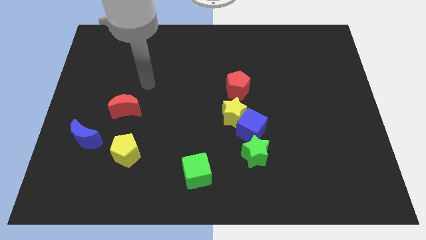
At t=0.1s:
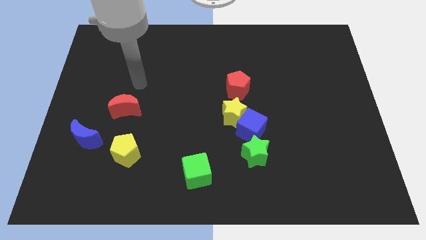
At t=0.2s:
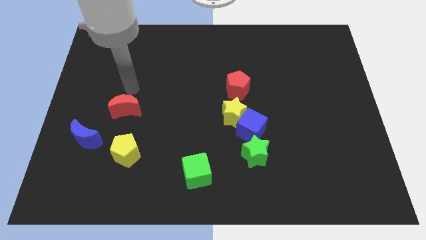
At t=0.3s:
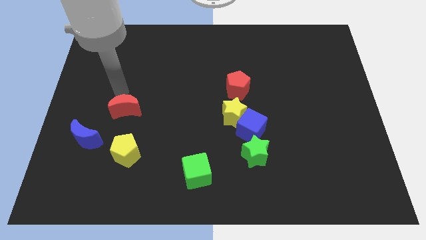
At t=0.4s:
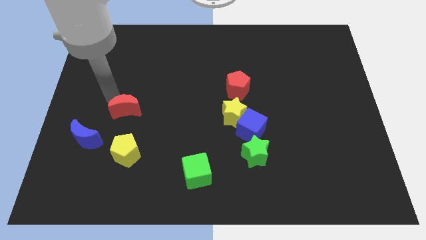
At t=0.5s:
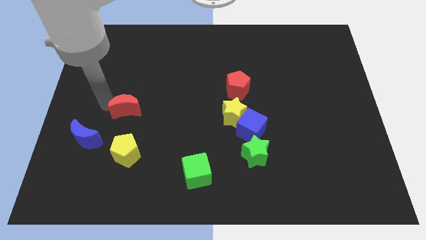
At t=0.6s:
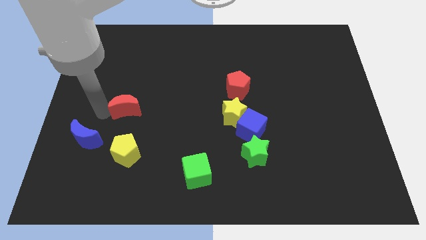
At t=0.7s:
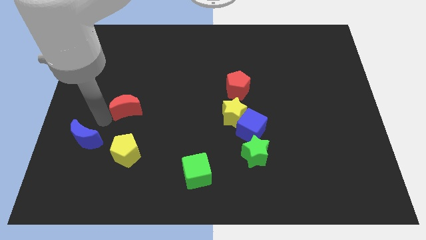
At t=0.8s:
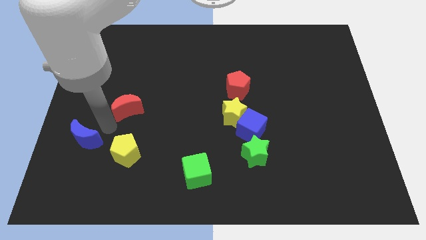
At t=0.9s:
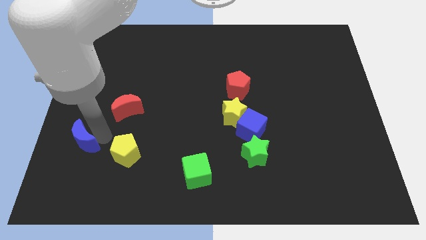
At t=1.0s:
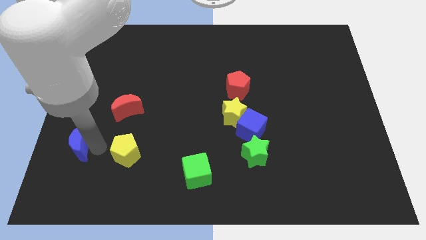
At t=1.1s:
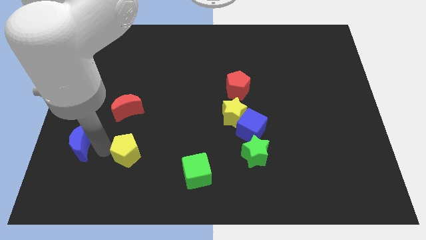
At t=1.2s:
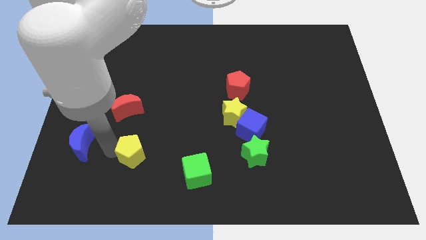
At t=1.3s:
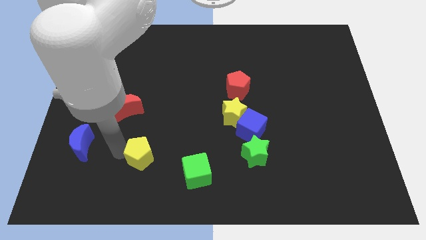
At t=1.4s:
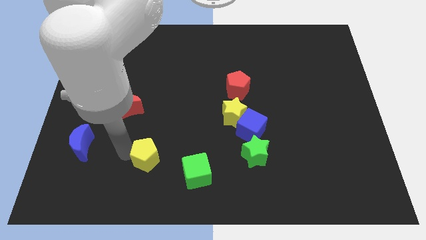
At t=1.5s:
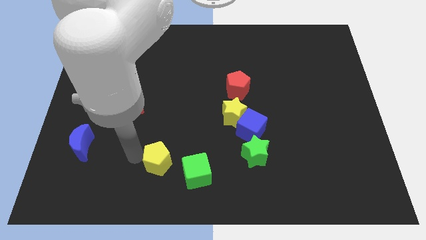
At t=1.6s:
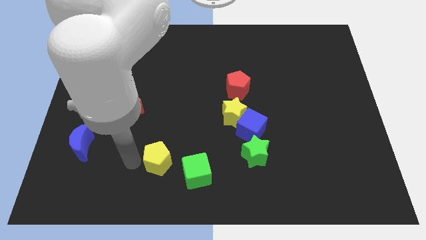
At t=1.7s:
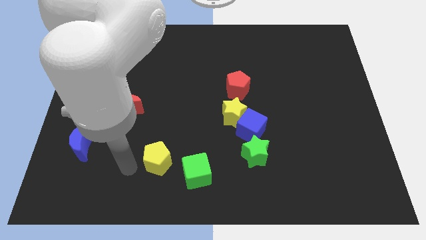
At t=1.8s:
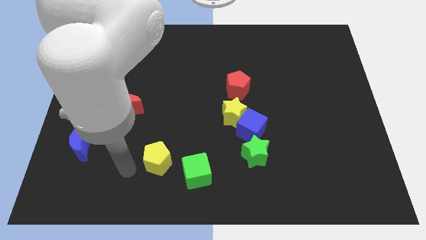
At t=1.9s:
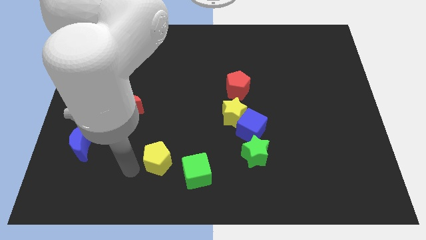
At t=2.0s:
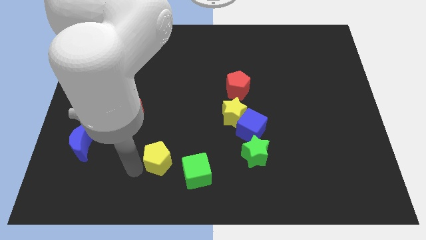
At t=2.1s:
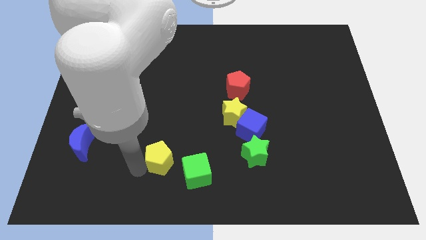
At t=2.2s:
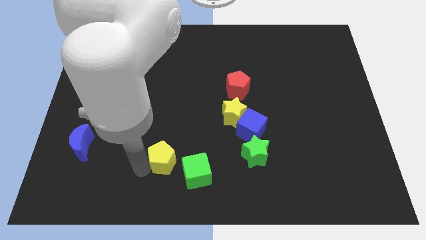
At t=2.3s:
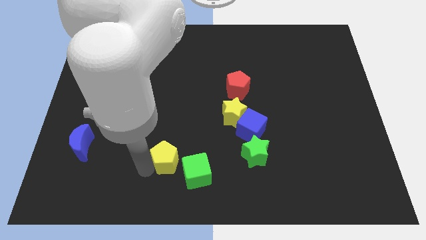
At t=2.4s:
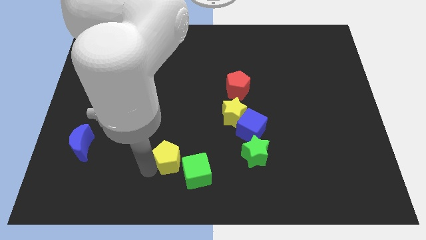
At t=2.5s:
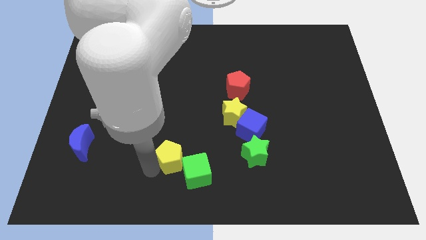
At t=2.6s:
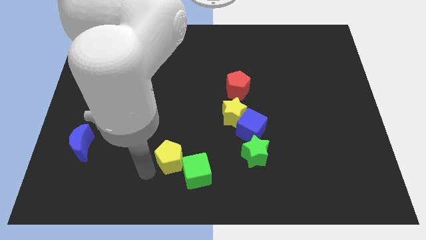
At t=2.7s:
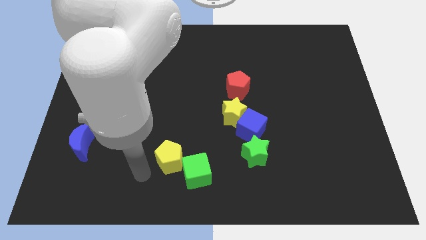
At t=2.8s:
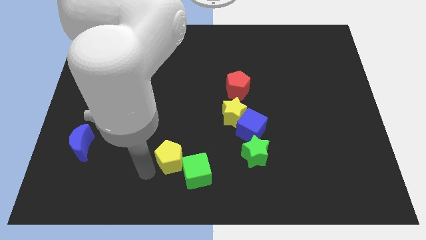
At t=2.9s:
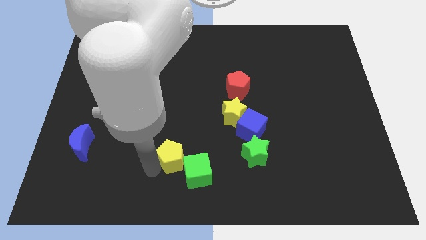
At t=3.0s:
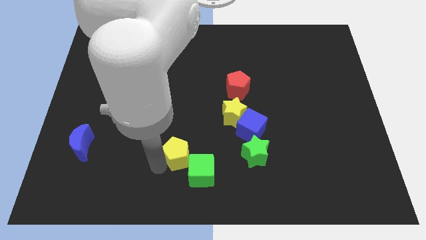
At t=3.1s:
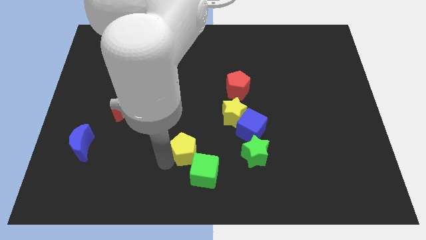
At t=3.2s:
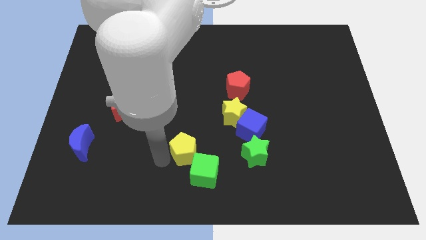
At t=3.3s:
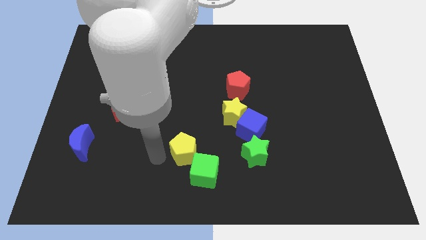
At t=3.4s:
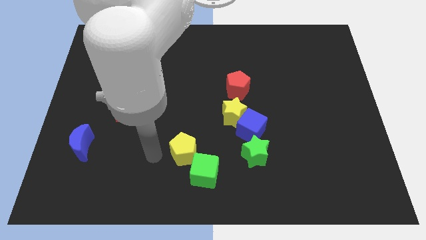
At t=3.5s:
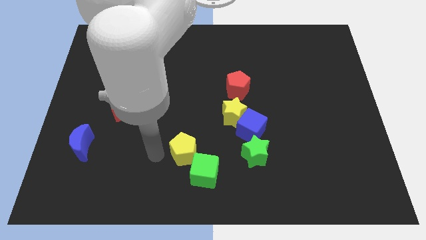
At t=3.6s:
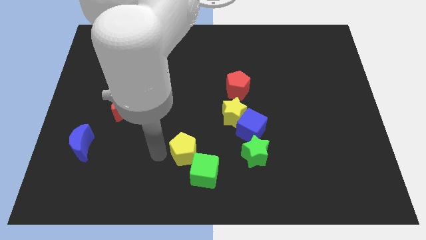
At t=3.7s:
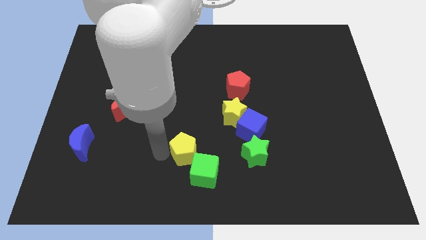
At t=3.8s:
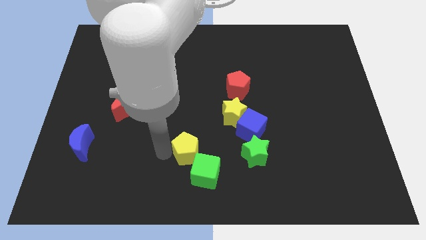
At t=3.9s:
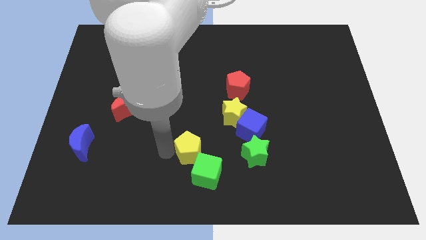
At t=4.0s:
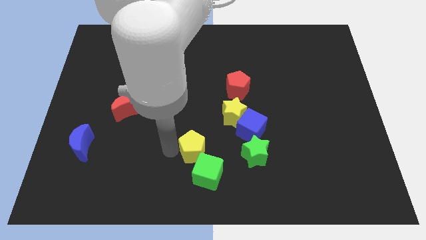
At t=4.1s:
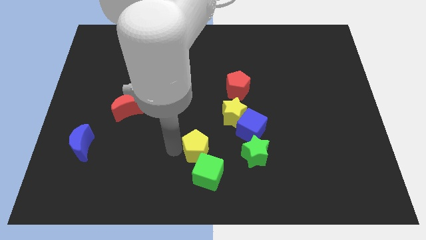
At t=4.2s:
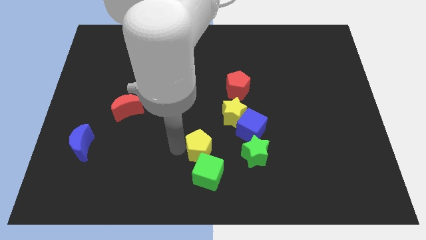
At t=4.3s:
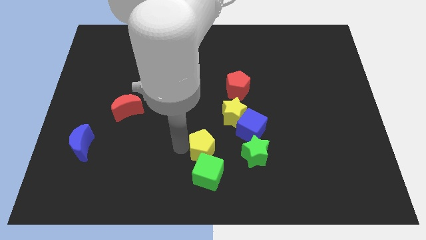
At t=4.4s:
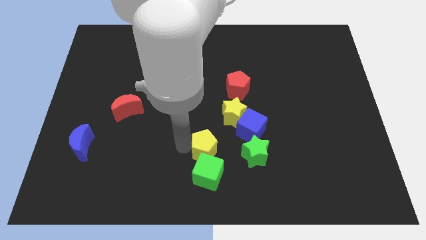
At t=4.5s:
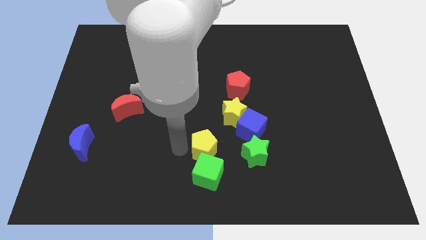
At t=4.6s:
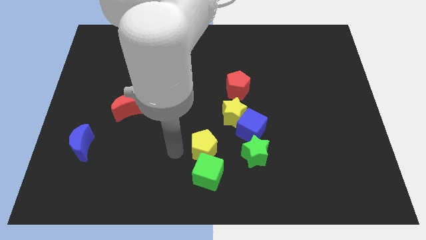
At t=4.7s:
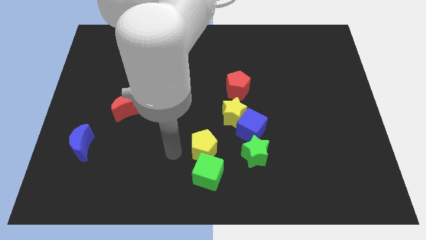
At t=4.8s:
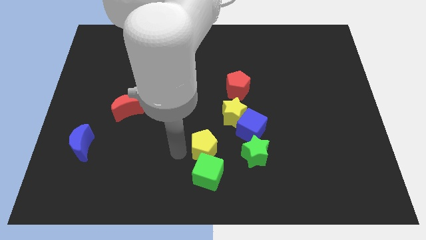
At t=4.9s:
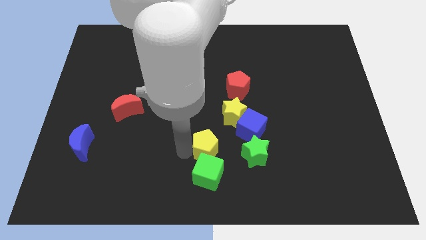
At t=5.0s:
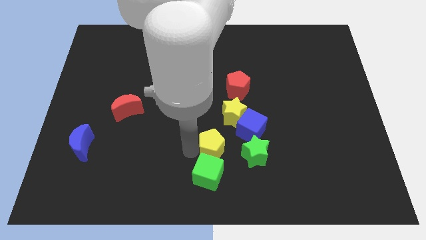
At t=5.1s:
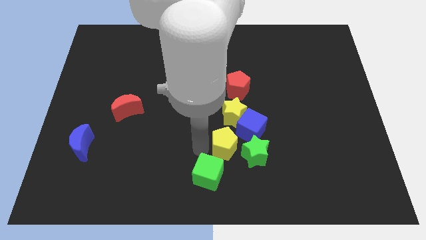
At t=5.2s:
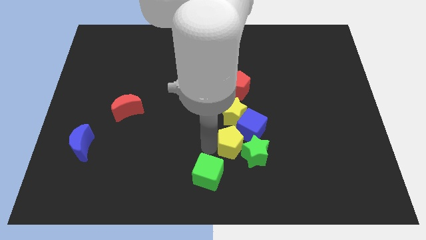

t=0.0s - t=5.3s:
slide the yellow pentagon towards the green star

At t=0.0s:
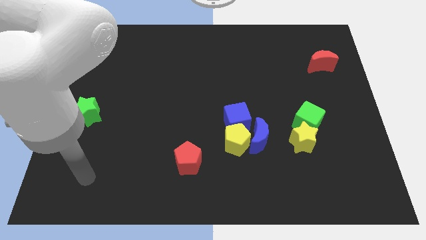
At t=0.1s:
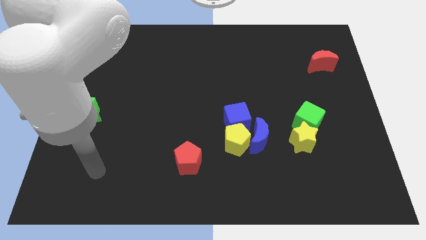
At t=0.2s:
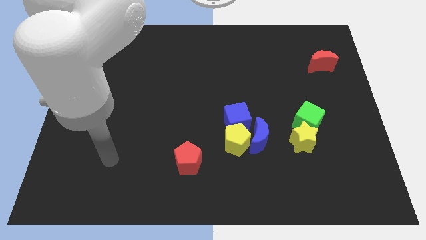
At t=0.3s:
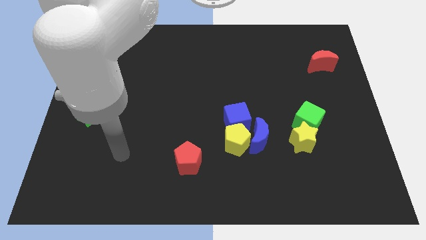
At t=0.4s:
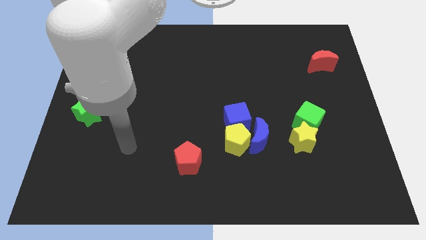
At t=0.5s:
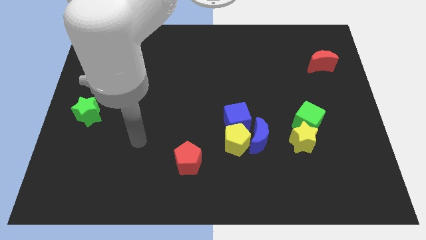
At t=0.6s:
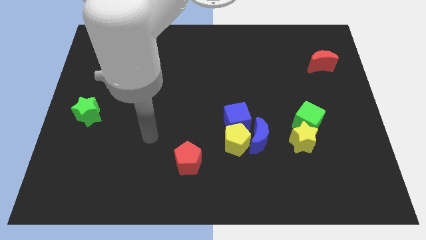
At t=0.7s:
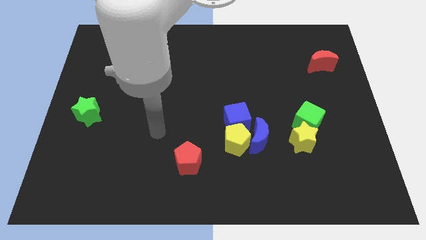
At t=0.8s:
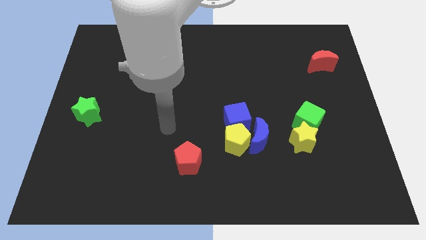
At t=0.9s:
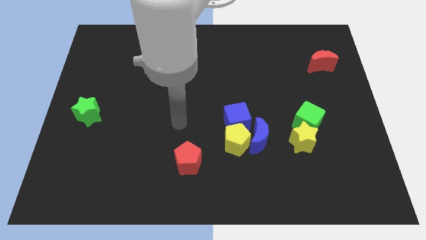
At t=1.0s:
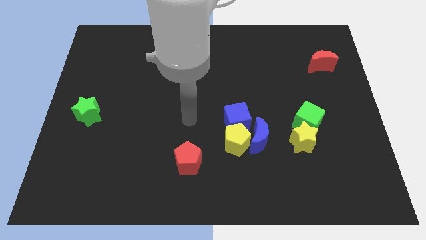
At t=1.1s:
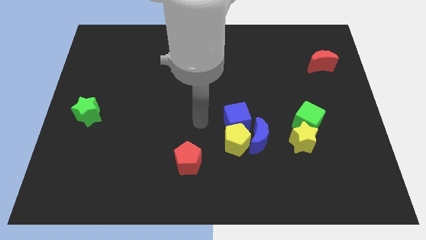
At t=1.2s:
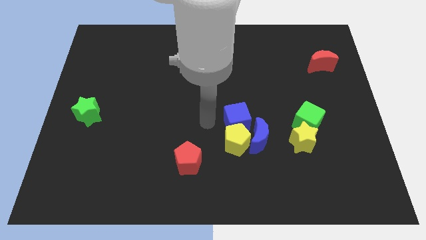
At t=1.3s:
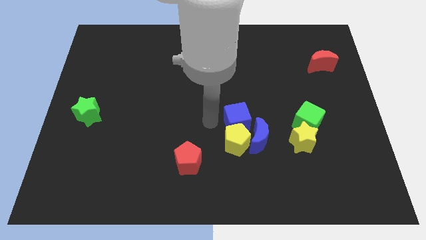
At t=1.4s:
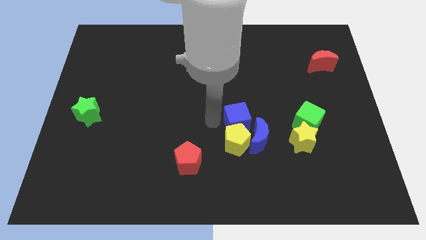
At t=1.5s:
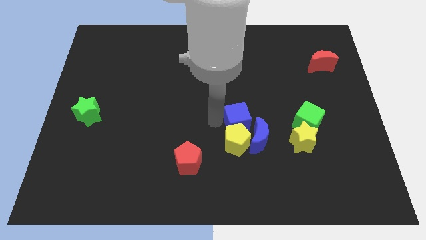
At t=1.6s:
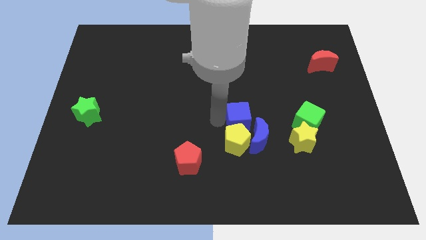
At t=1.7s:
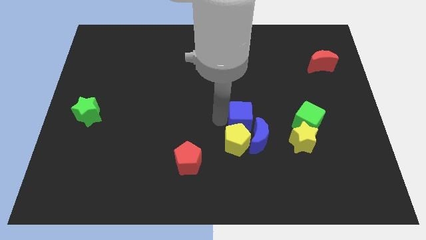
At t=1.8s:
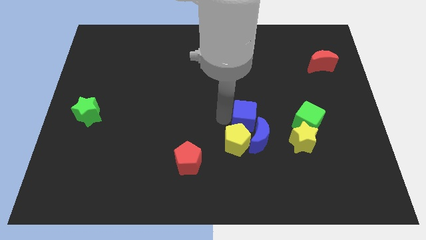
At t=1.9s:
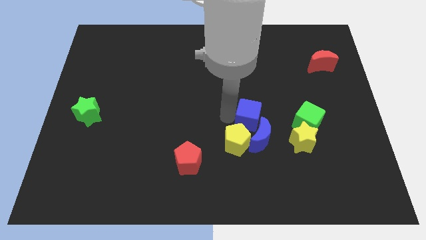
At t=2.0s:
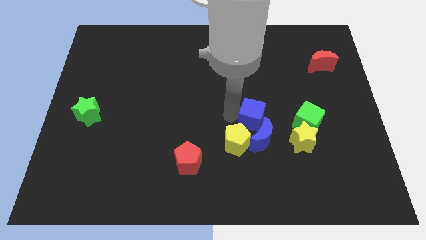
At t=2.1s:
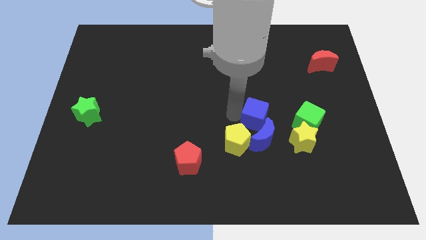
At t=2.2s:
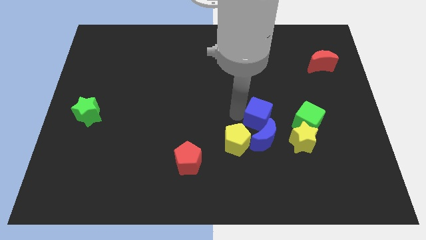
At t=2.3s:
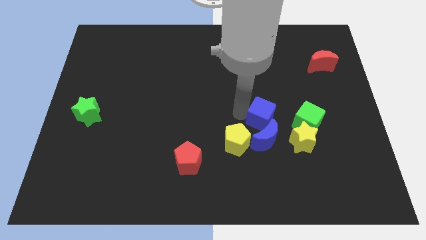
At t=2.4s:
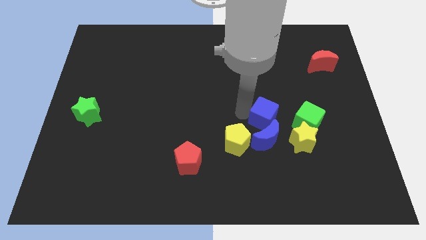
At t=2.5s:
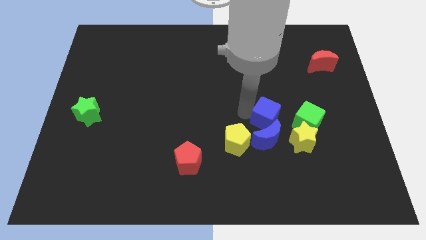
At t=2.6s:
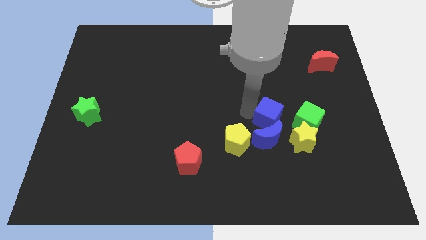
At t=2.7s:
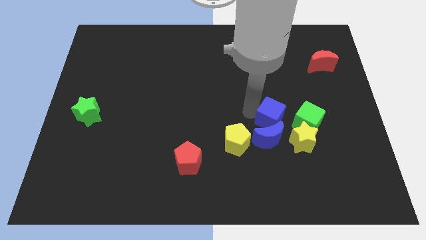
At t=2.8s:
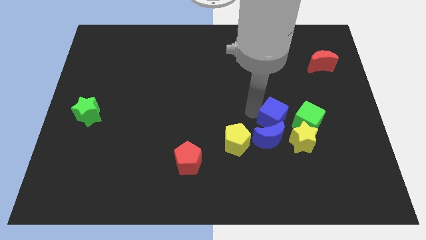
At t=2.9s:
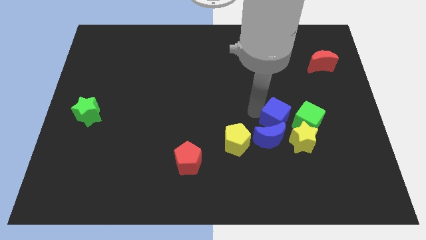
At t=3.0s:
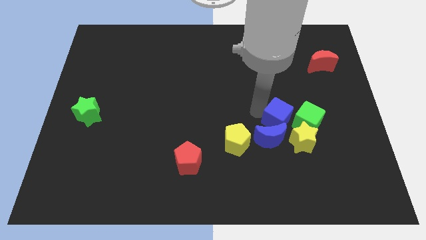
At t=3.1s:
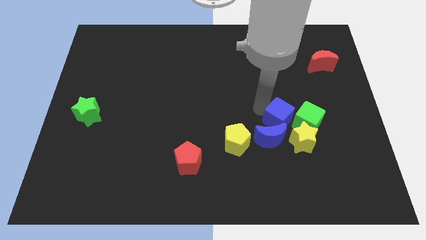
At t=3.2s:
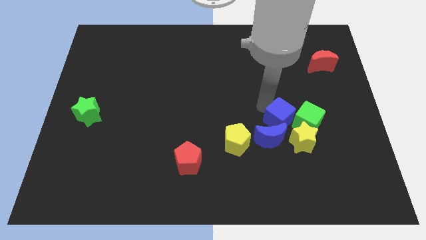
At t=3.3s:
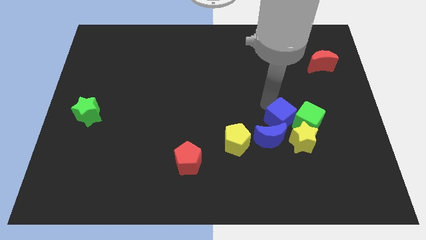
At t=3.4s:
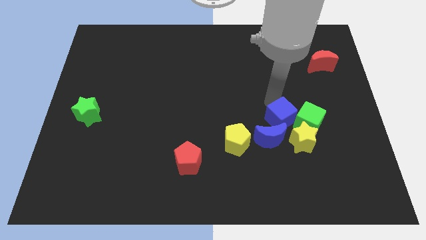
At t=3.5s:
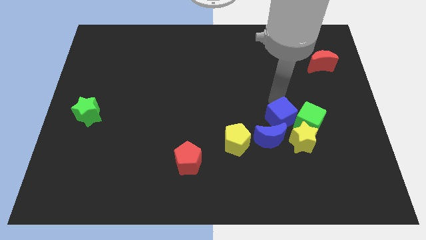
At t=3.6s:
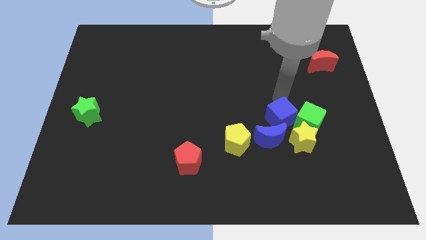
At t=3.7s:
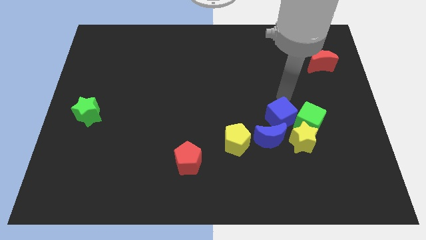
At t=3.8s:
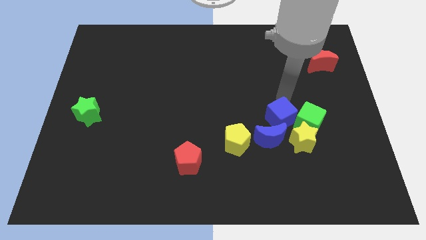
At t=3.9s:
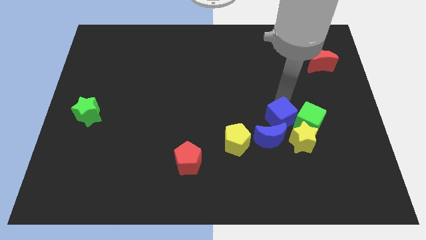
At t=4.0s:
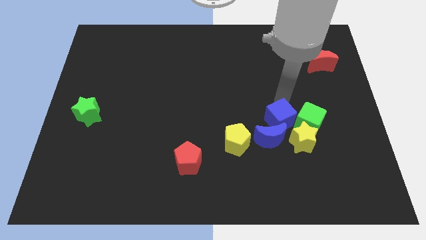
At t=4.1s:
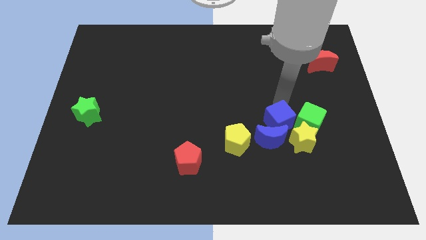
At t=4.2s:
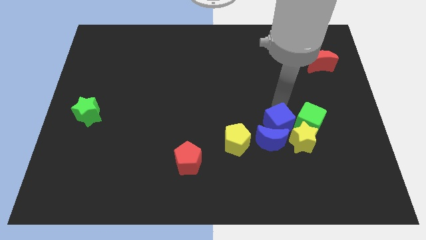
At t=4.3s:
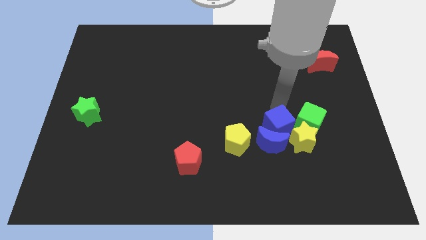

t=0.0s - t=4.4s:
slide the blue cube close to the yellow star
